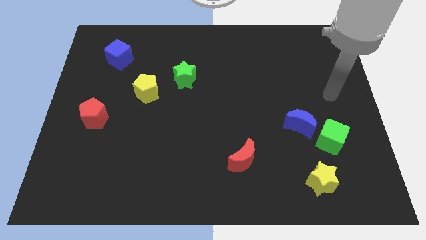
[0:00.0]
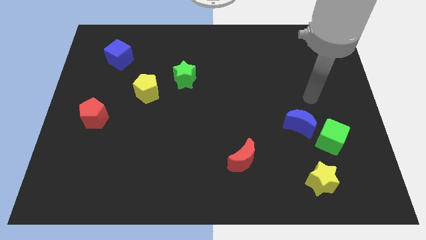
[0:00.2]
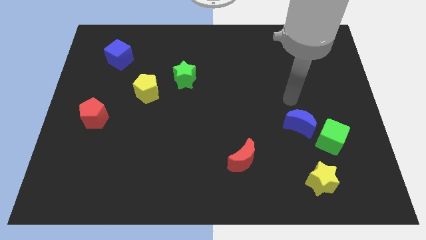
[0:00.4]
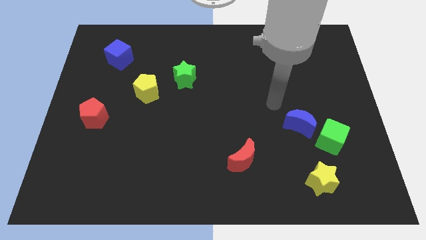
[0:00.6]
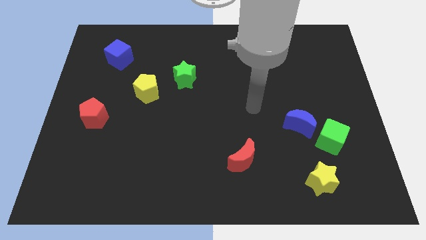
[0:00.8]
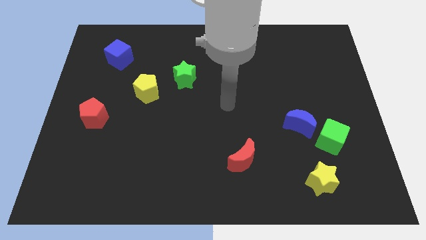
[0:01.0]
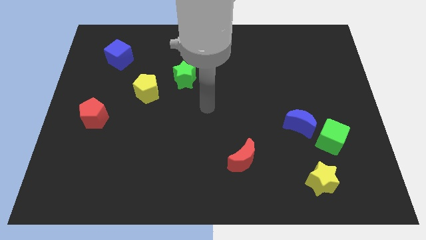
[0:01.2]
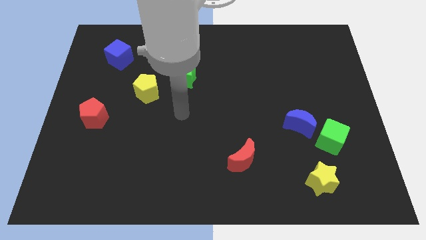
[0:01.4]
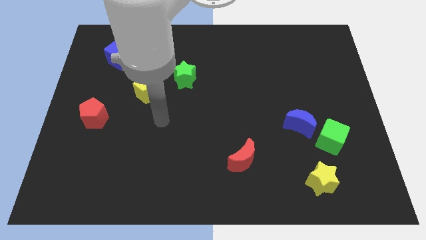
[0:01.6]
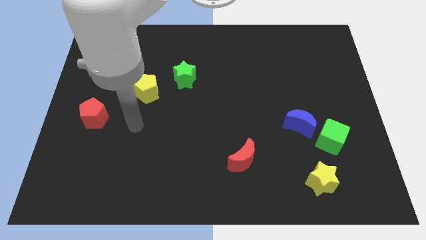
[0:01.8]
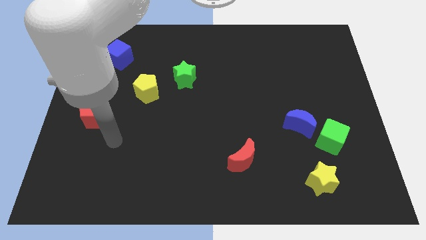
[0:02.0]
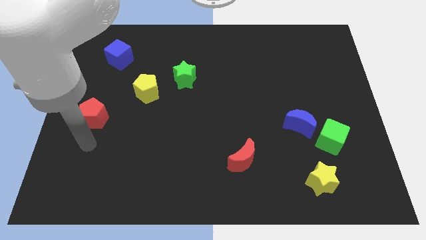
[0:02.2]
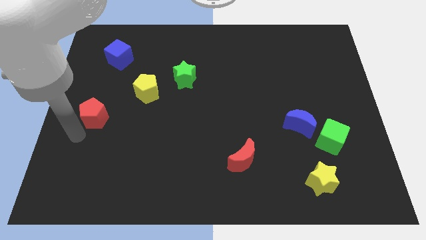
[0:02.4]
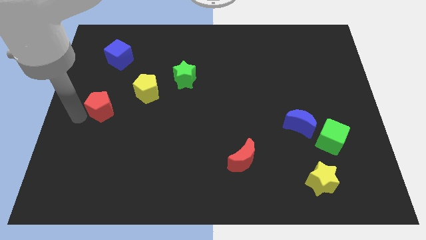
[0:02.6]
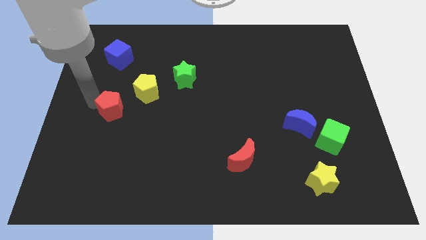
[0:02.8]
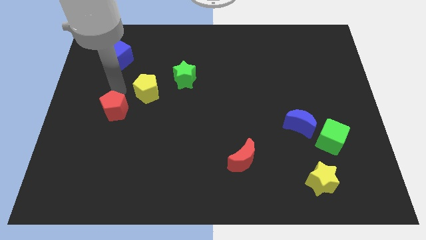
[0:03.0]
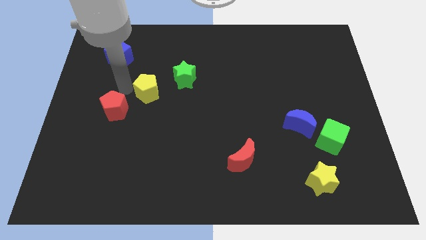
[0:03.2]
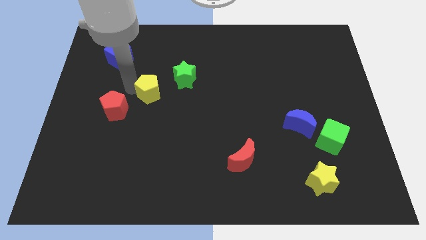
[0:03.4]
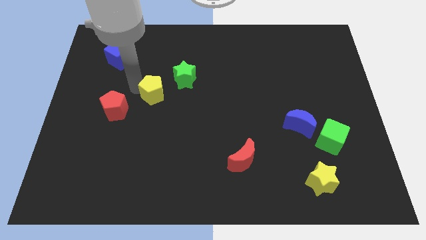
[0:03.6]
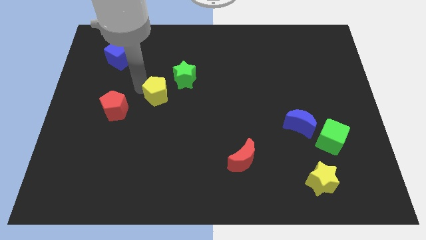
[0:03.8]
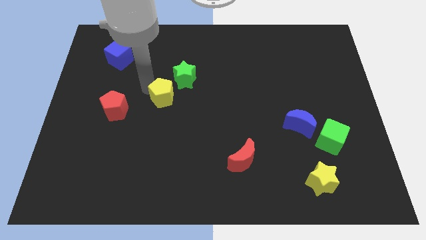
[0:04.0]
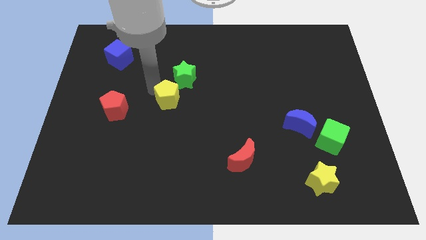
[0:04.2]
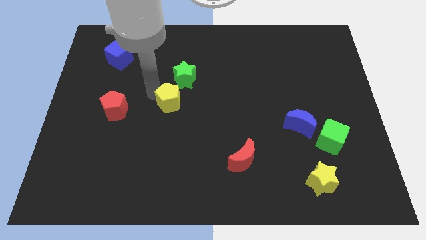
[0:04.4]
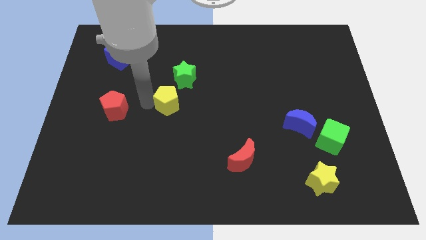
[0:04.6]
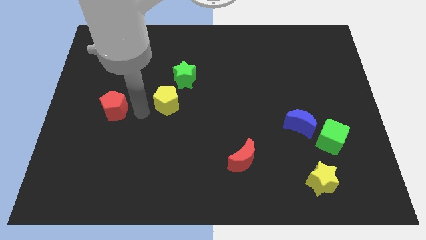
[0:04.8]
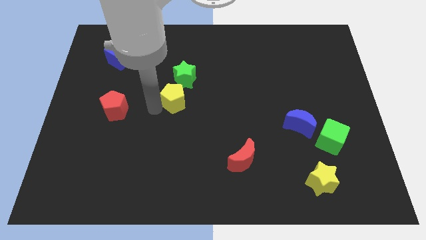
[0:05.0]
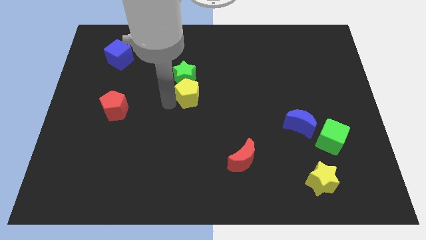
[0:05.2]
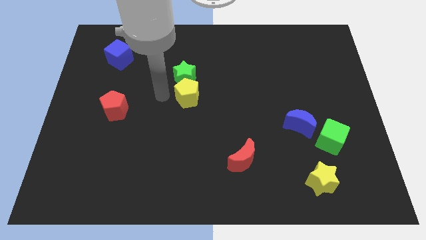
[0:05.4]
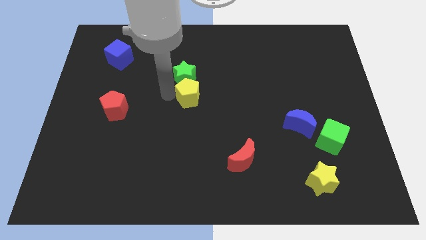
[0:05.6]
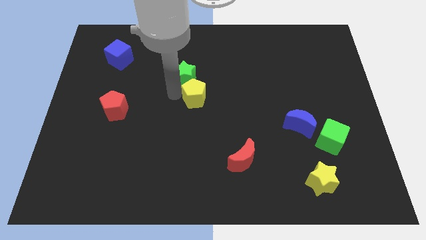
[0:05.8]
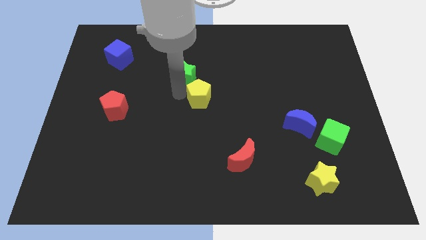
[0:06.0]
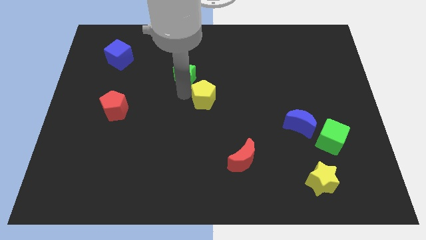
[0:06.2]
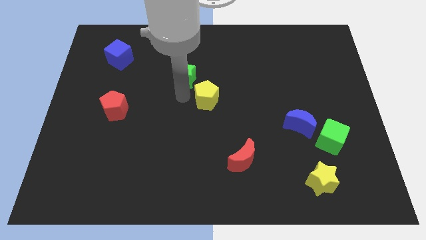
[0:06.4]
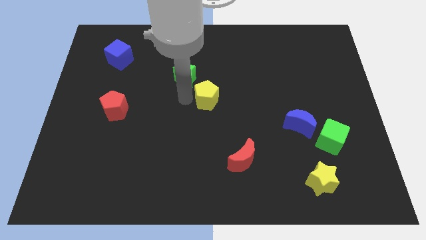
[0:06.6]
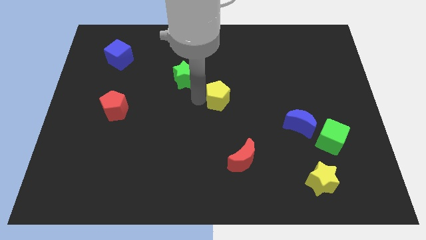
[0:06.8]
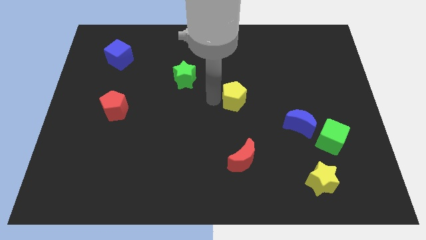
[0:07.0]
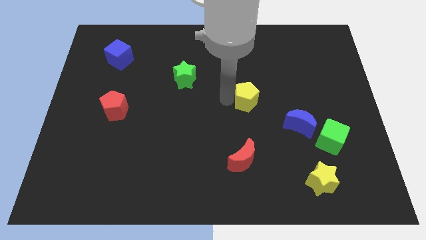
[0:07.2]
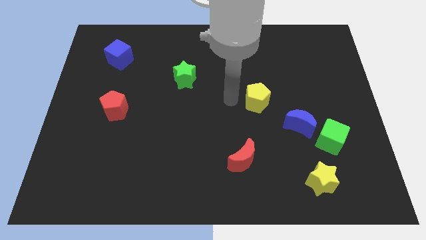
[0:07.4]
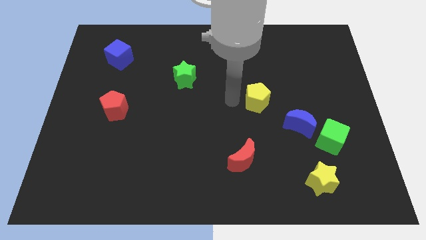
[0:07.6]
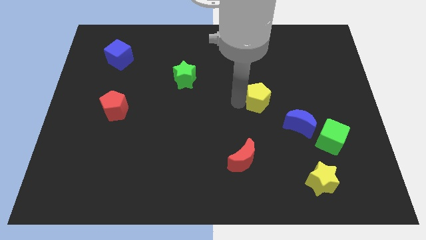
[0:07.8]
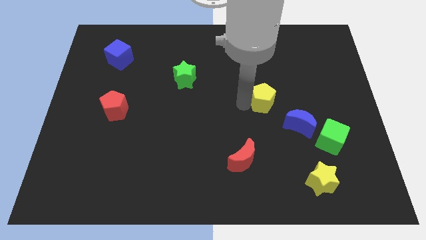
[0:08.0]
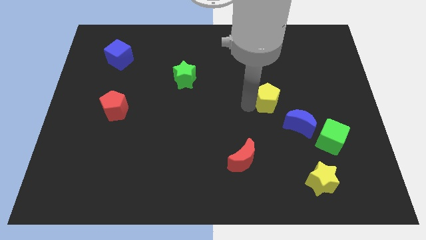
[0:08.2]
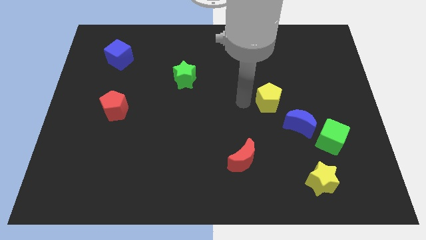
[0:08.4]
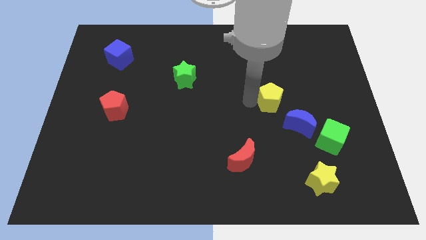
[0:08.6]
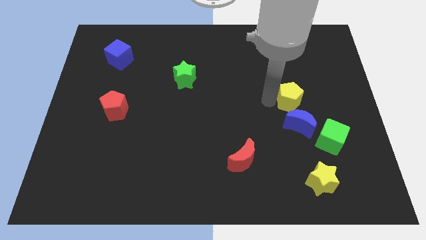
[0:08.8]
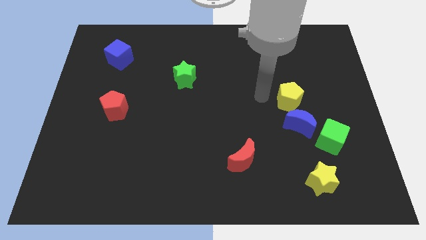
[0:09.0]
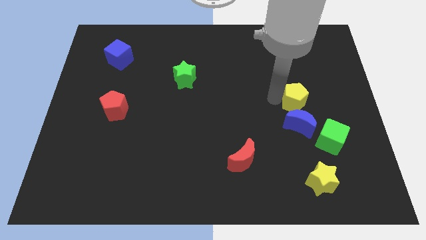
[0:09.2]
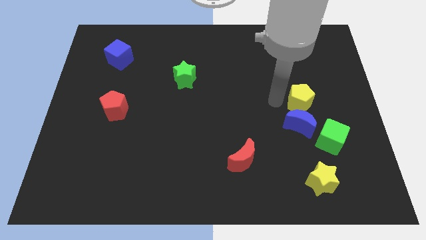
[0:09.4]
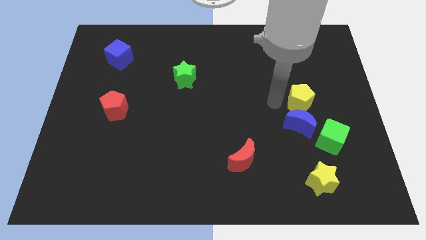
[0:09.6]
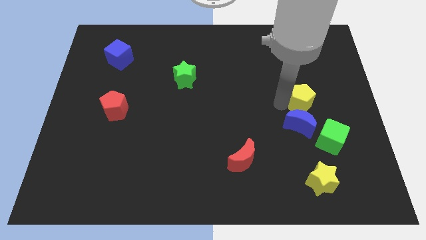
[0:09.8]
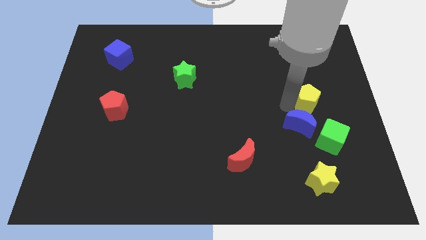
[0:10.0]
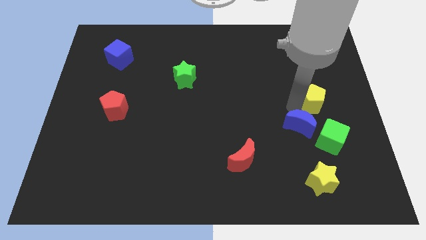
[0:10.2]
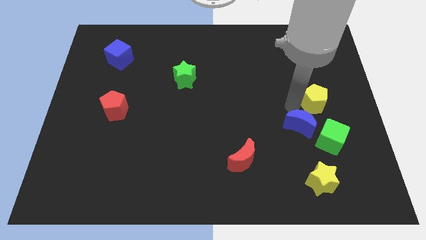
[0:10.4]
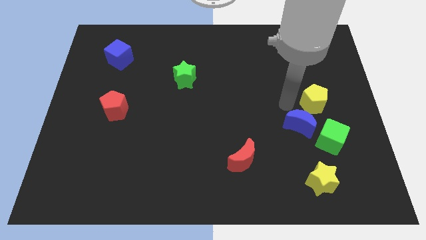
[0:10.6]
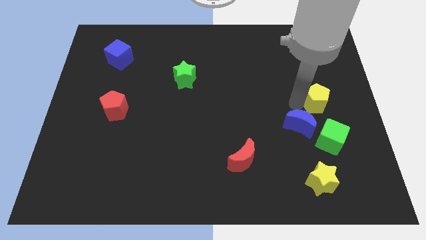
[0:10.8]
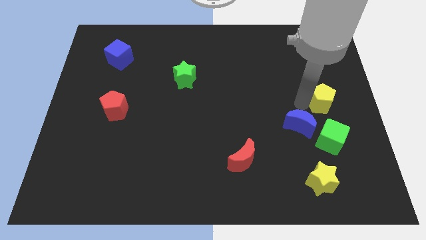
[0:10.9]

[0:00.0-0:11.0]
move the yellow pentagon to the right side
